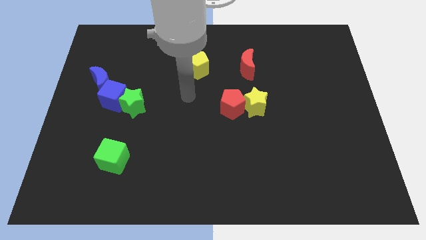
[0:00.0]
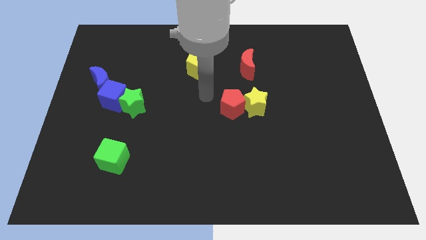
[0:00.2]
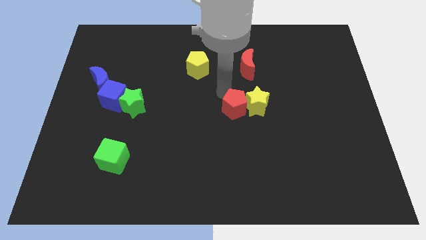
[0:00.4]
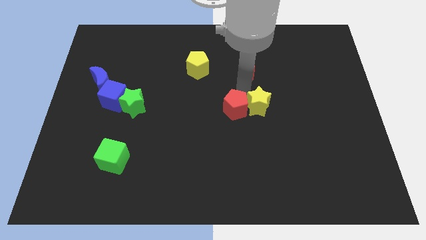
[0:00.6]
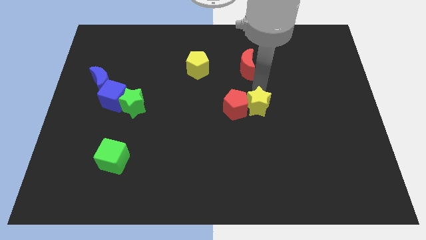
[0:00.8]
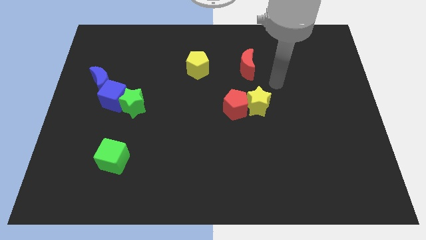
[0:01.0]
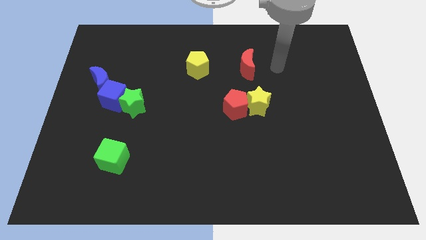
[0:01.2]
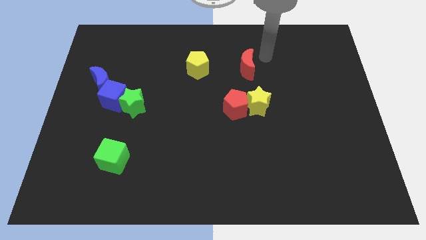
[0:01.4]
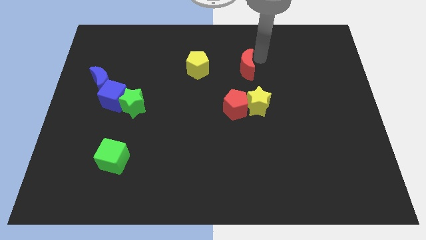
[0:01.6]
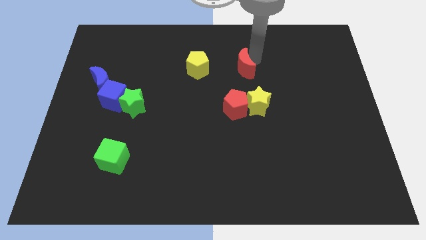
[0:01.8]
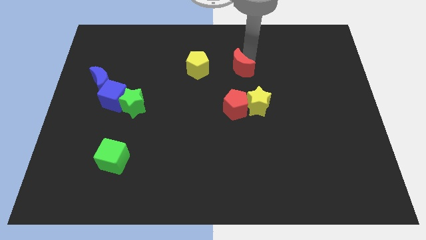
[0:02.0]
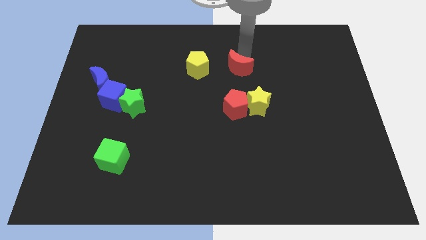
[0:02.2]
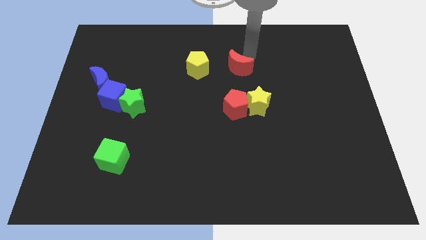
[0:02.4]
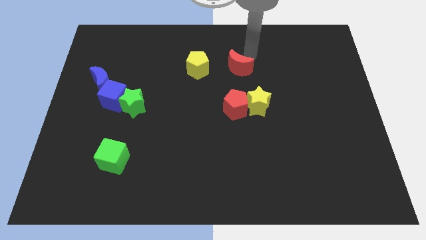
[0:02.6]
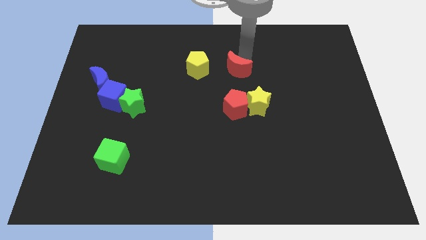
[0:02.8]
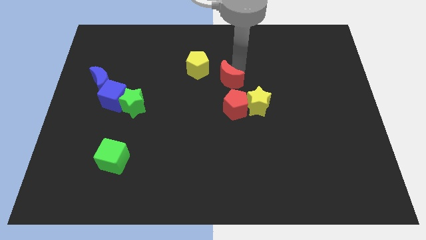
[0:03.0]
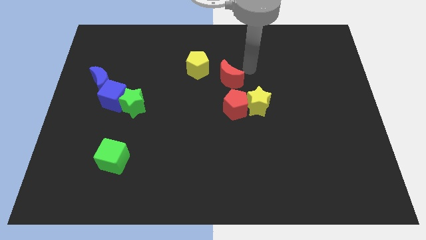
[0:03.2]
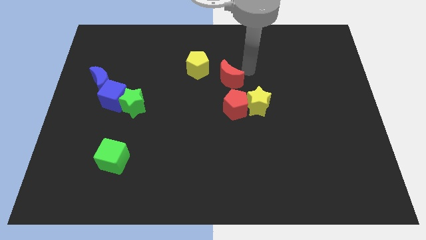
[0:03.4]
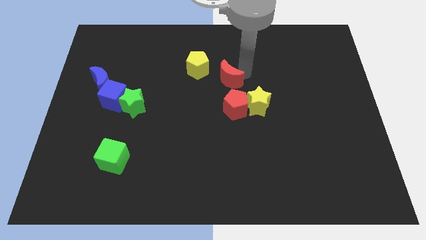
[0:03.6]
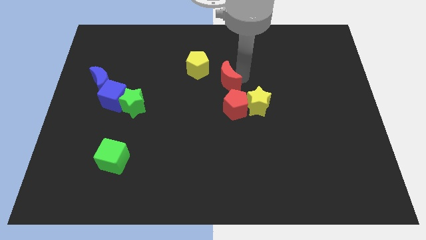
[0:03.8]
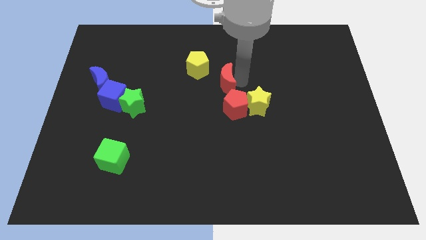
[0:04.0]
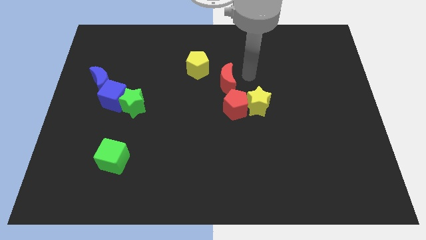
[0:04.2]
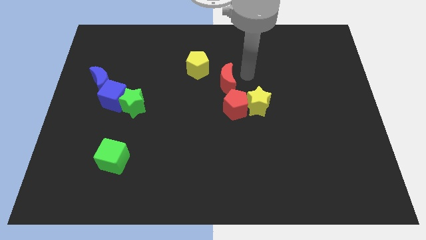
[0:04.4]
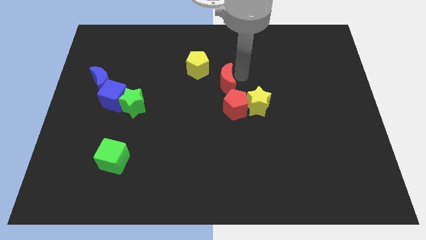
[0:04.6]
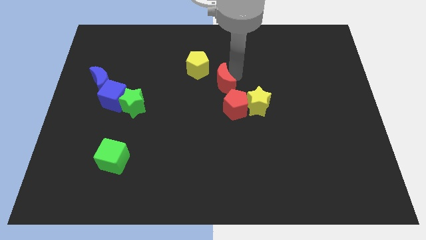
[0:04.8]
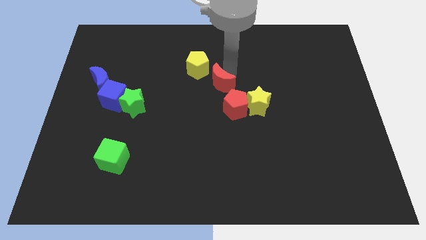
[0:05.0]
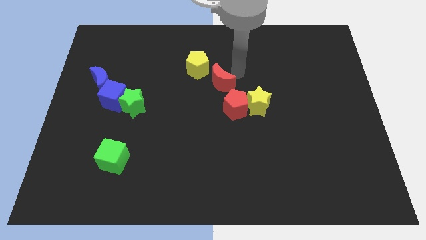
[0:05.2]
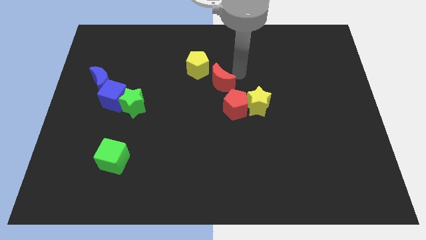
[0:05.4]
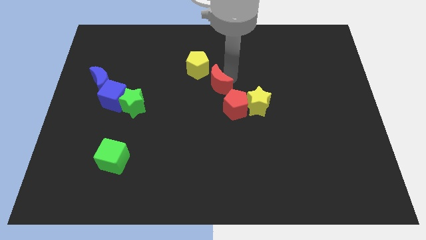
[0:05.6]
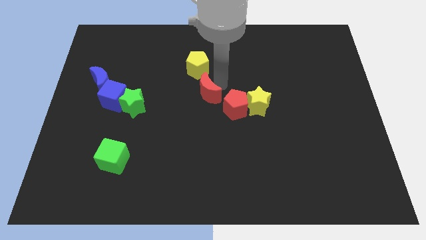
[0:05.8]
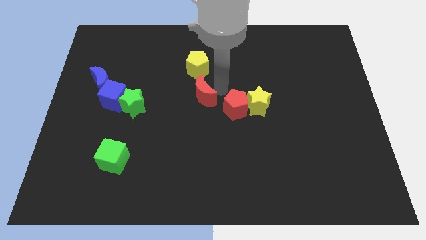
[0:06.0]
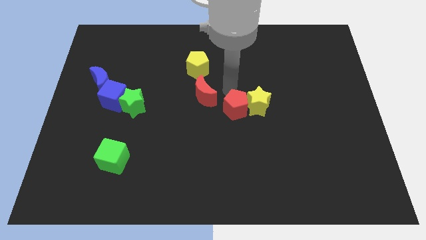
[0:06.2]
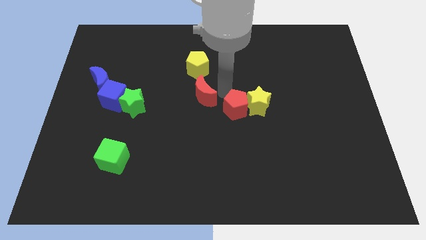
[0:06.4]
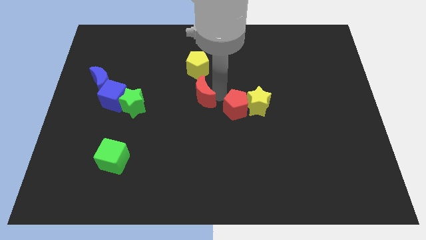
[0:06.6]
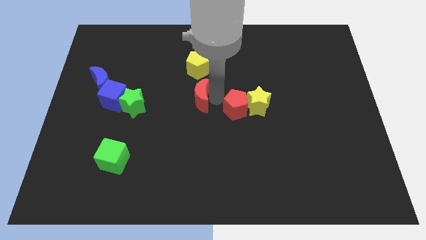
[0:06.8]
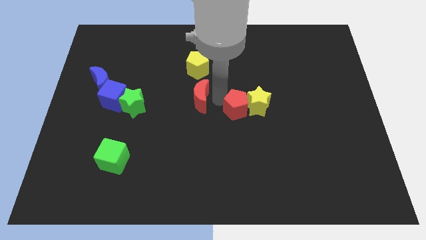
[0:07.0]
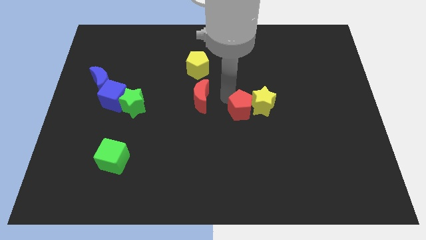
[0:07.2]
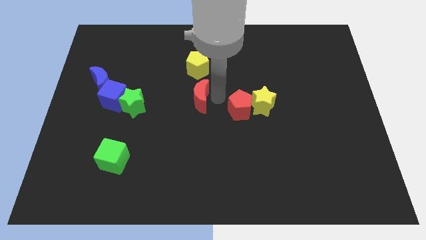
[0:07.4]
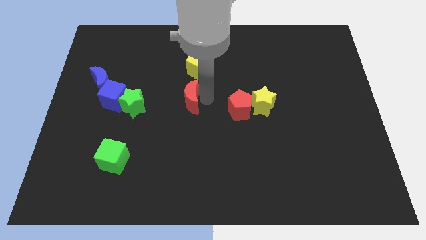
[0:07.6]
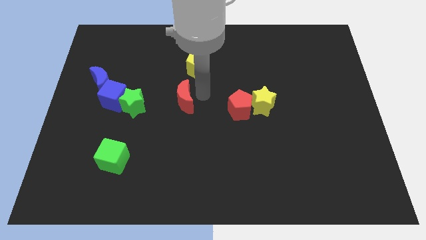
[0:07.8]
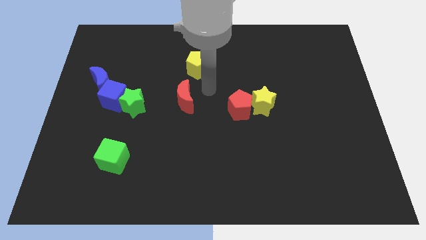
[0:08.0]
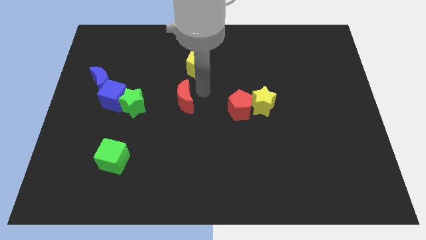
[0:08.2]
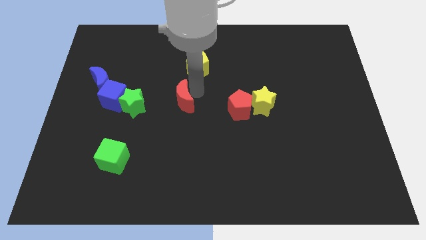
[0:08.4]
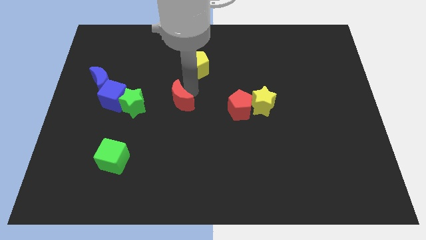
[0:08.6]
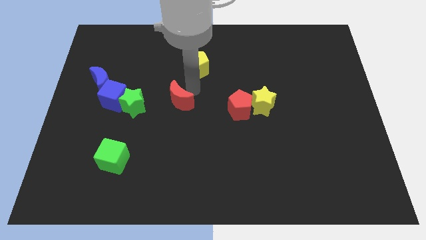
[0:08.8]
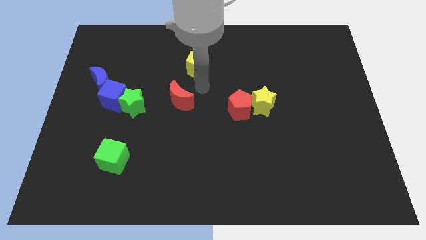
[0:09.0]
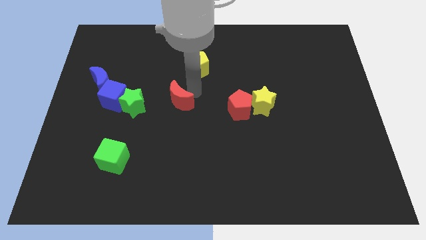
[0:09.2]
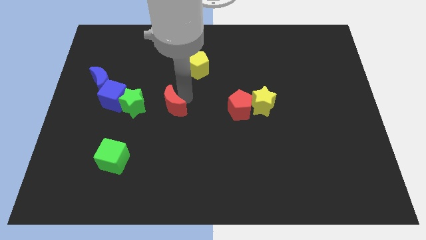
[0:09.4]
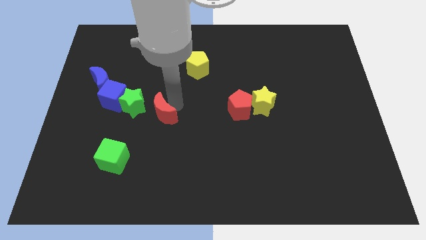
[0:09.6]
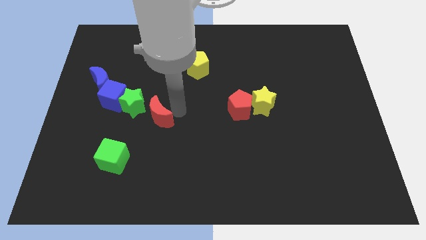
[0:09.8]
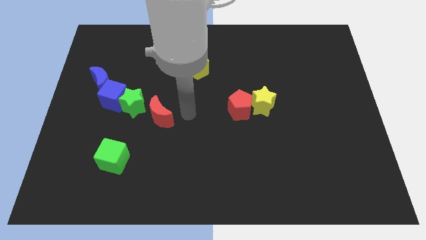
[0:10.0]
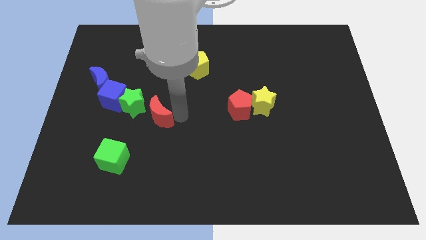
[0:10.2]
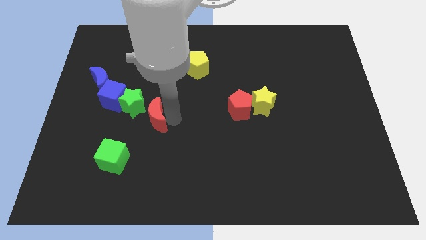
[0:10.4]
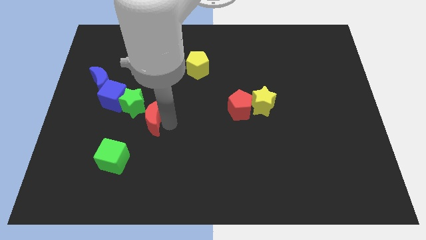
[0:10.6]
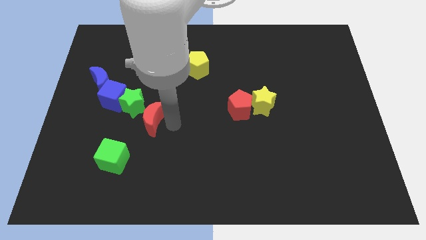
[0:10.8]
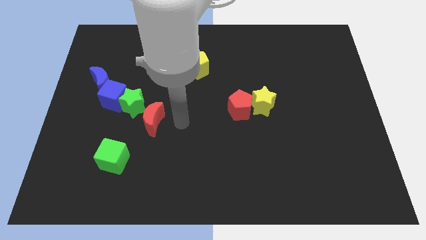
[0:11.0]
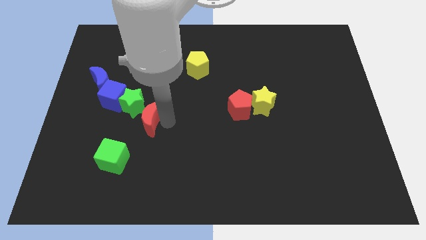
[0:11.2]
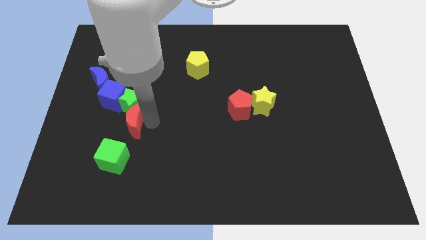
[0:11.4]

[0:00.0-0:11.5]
put the red moon to the top of the green cube

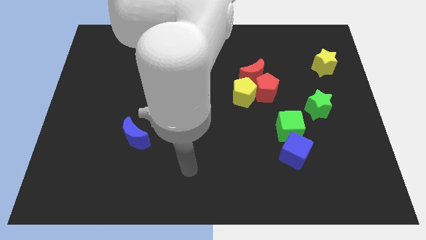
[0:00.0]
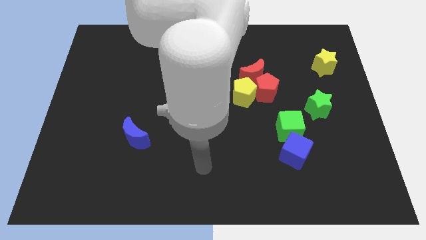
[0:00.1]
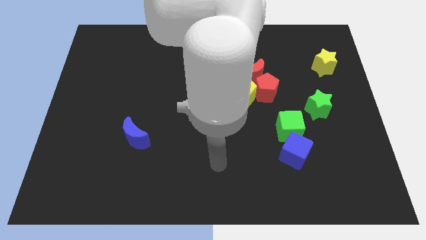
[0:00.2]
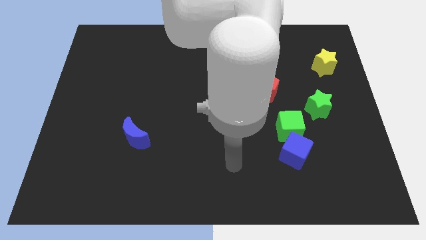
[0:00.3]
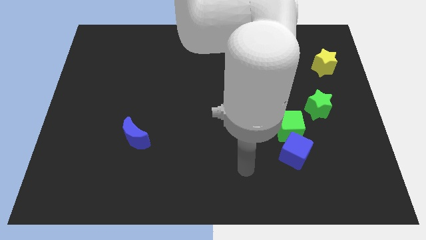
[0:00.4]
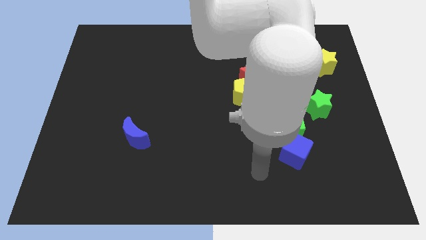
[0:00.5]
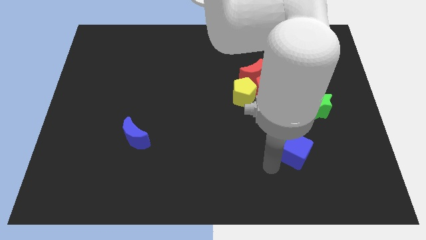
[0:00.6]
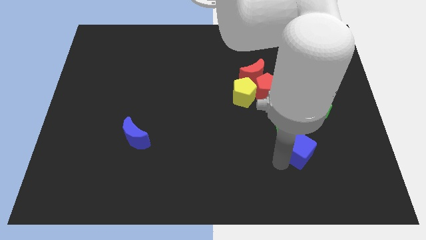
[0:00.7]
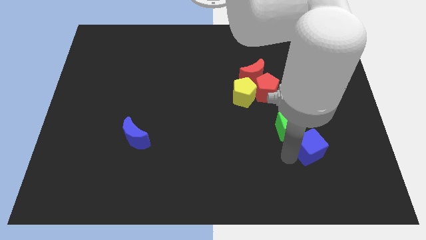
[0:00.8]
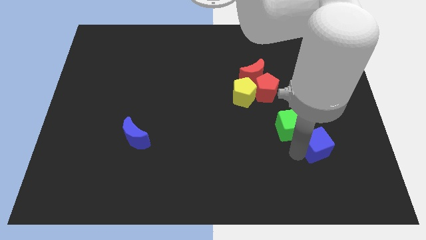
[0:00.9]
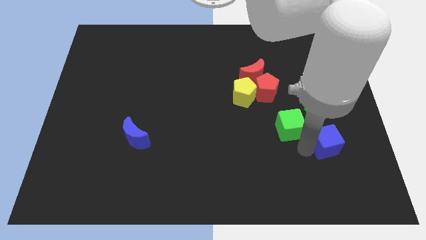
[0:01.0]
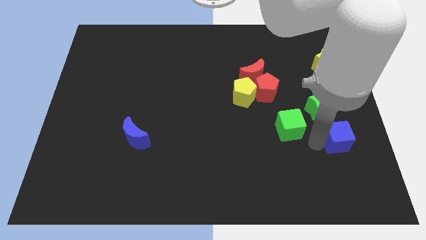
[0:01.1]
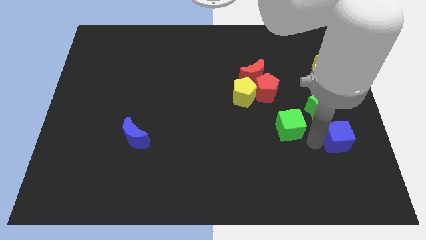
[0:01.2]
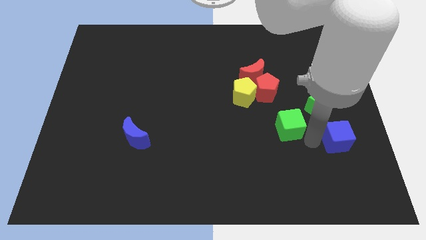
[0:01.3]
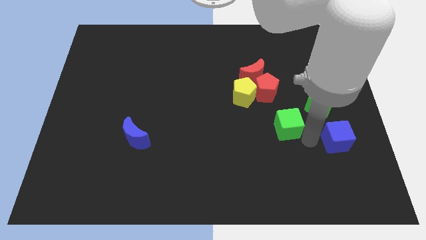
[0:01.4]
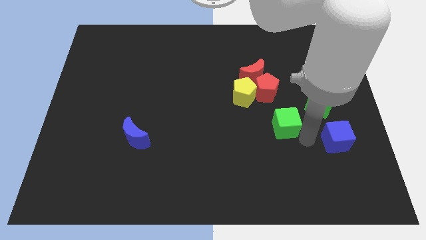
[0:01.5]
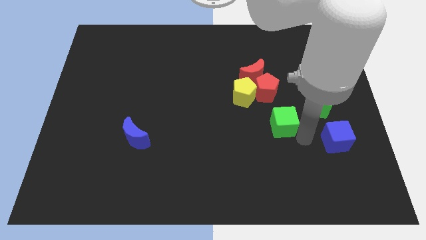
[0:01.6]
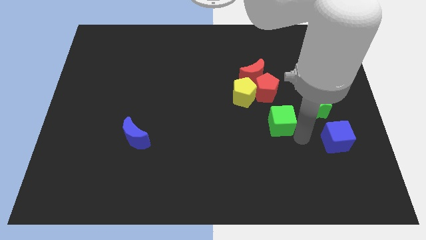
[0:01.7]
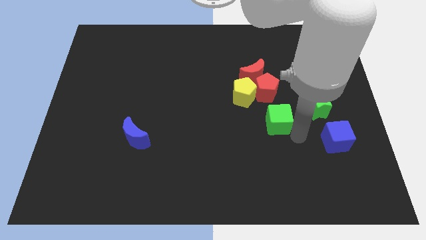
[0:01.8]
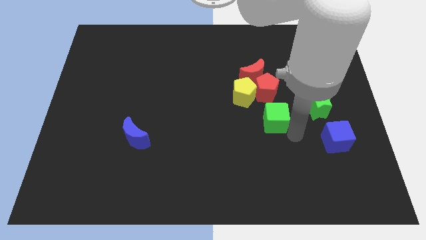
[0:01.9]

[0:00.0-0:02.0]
push the green cube to the bottom side of the red moon

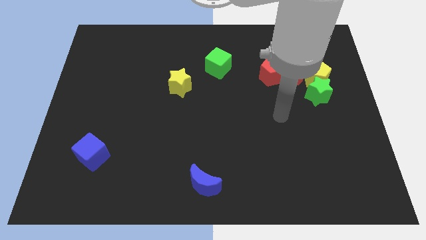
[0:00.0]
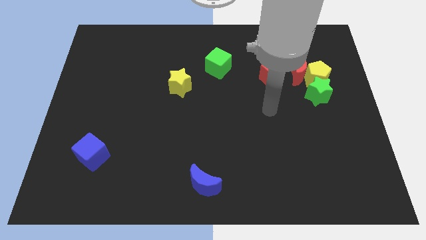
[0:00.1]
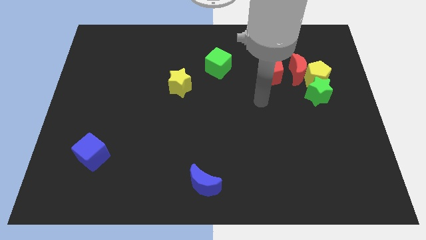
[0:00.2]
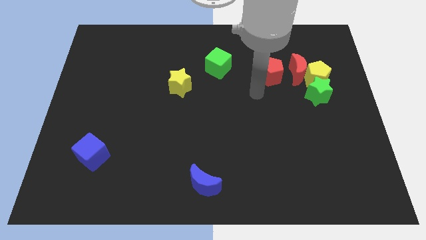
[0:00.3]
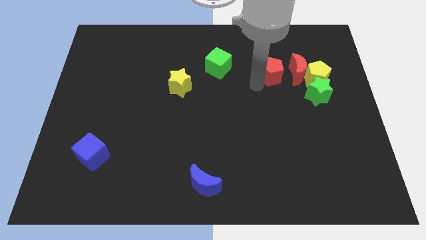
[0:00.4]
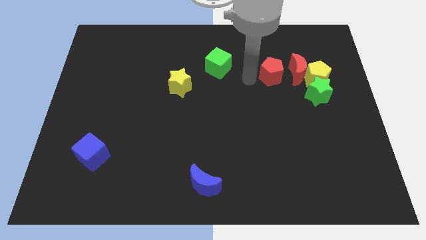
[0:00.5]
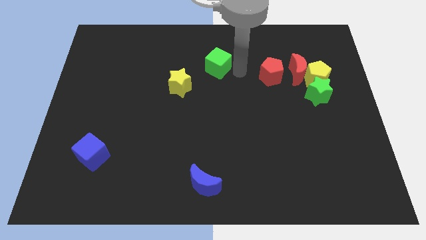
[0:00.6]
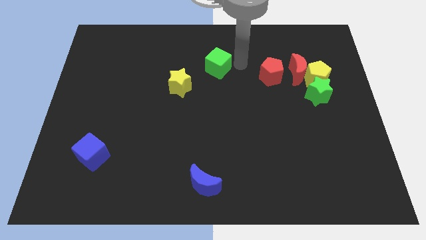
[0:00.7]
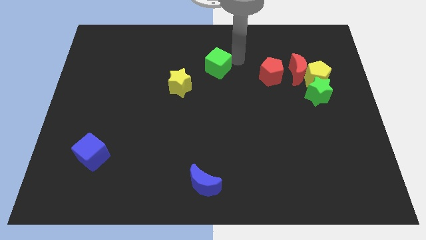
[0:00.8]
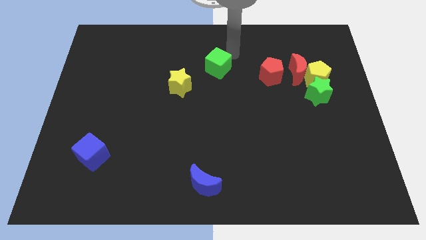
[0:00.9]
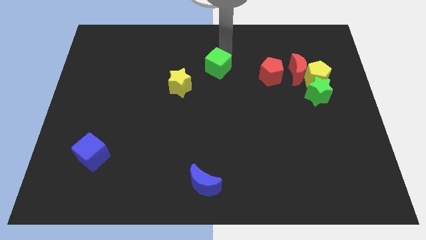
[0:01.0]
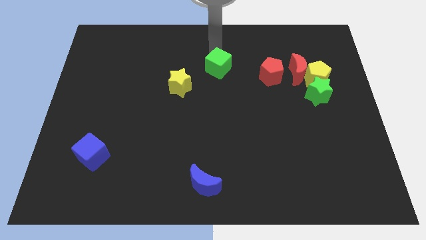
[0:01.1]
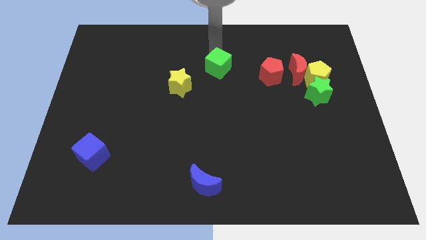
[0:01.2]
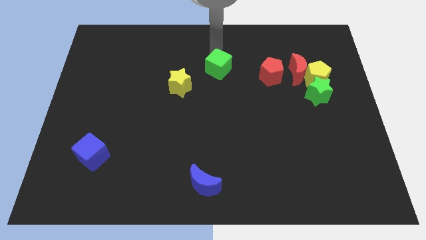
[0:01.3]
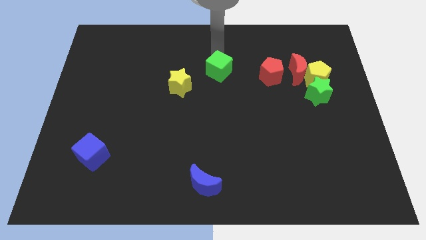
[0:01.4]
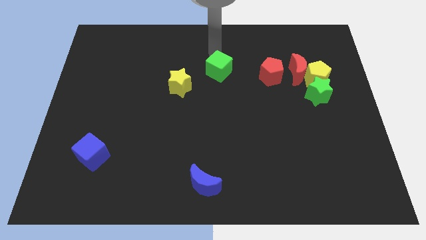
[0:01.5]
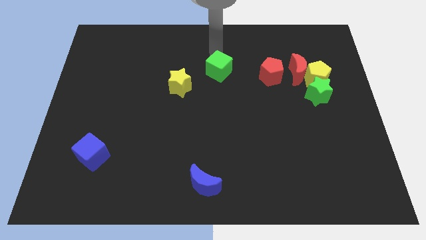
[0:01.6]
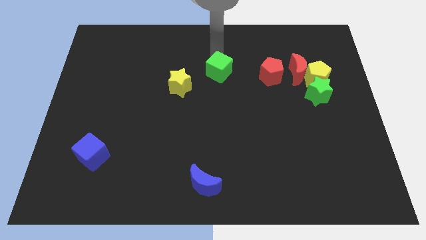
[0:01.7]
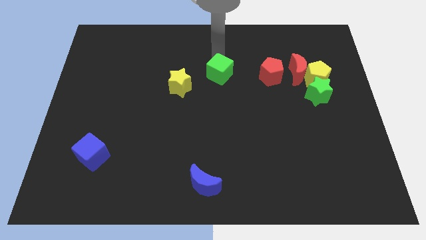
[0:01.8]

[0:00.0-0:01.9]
slide the green cube right of the yellow star
